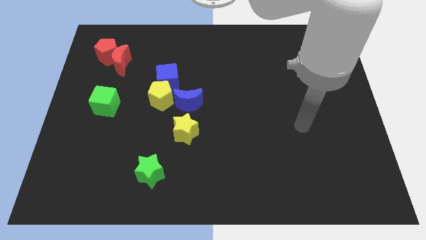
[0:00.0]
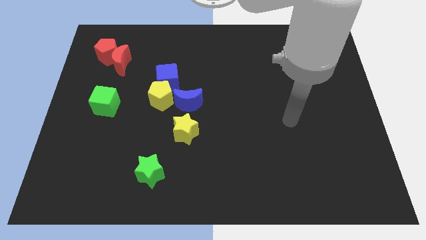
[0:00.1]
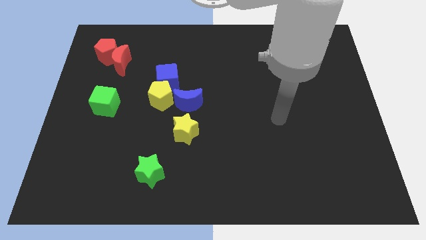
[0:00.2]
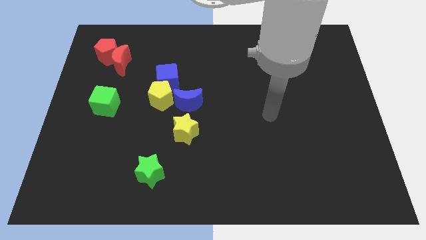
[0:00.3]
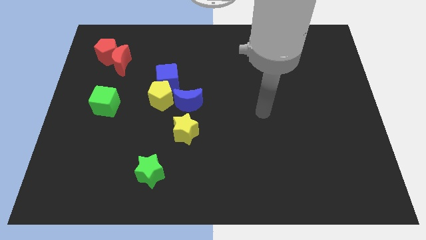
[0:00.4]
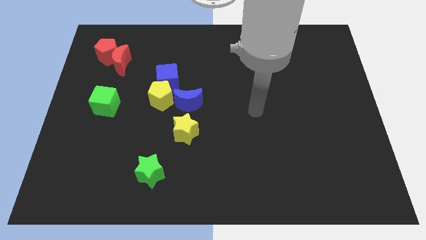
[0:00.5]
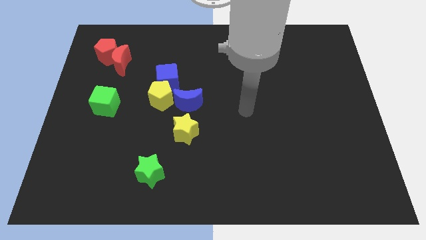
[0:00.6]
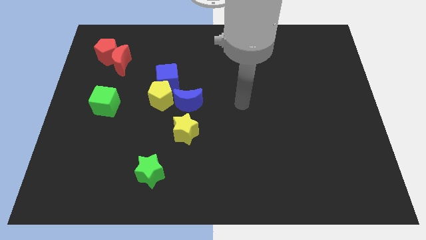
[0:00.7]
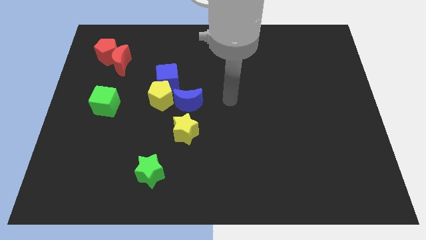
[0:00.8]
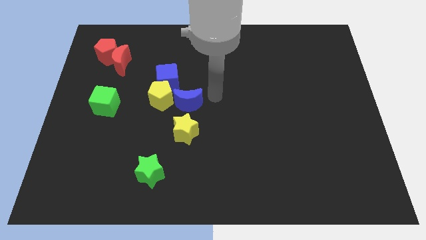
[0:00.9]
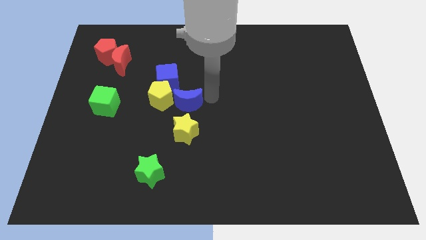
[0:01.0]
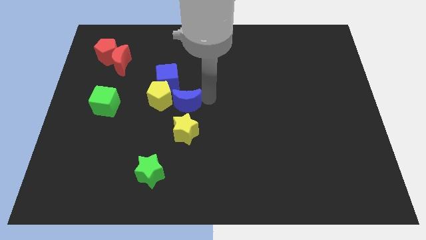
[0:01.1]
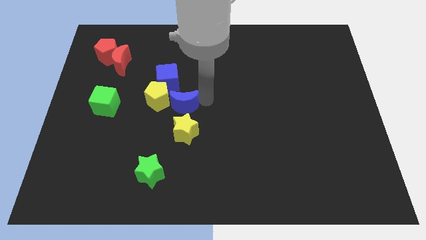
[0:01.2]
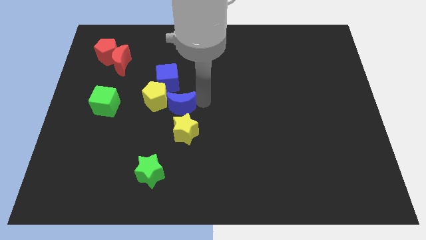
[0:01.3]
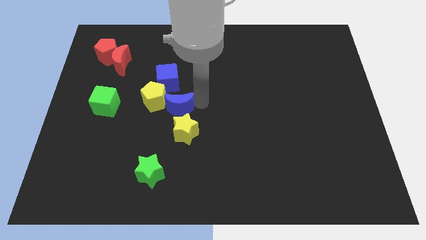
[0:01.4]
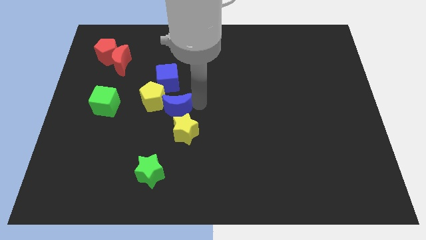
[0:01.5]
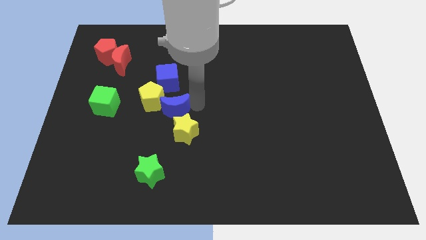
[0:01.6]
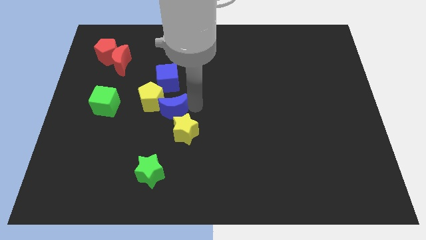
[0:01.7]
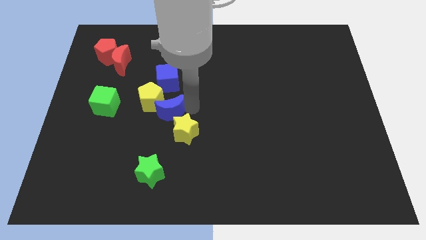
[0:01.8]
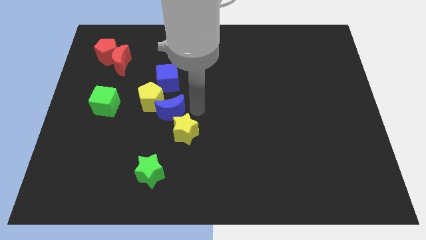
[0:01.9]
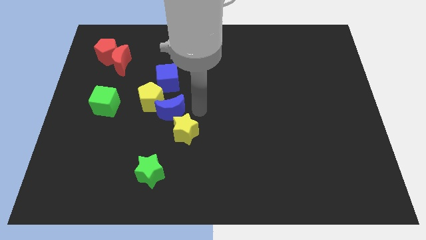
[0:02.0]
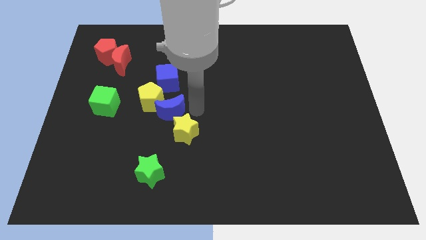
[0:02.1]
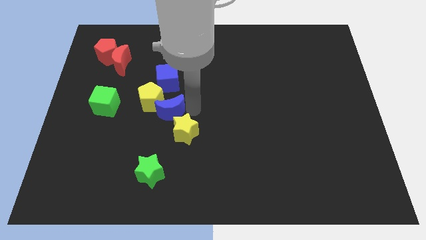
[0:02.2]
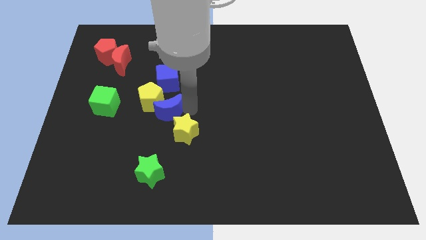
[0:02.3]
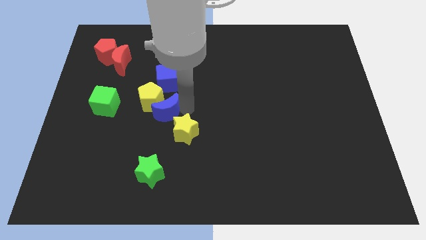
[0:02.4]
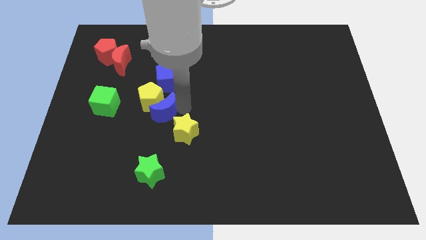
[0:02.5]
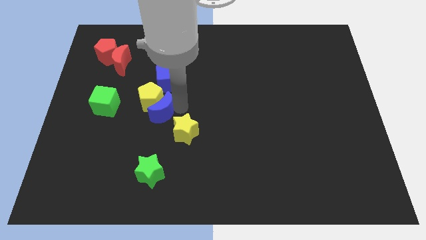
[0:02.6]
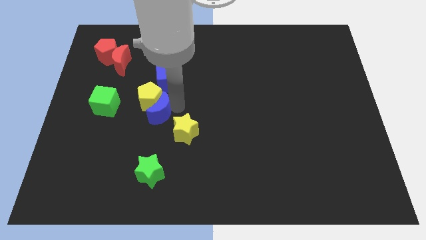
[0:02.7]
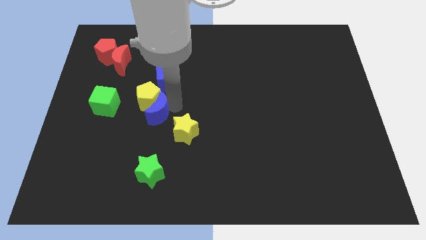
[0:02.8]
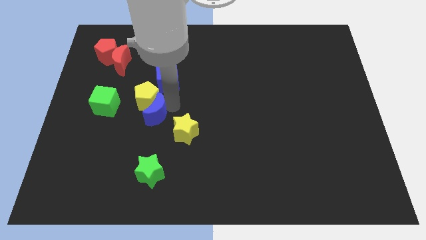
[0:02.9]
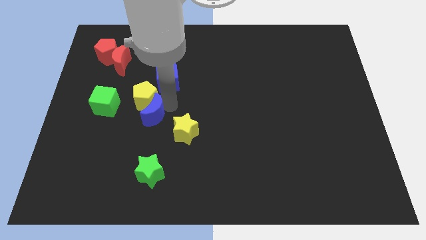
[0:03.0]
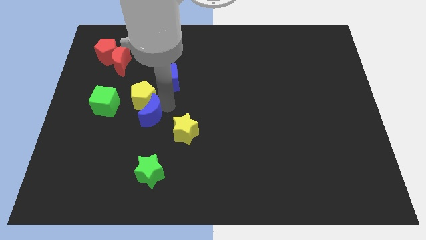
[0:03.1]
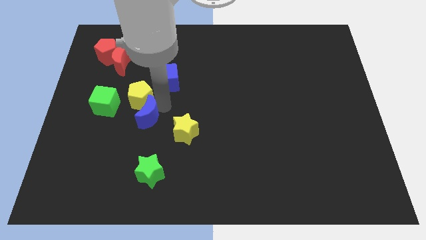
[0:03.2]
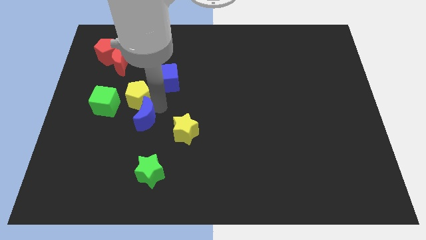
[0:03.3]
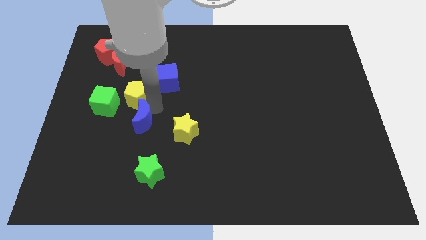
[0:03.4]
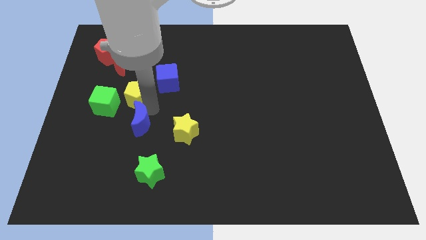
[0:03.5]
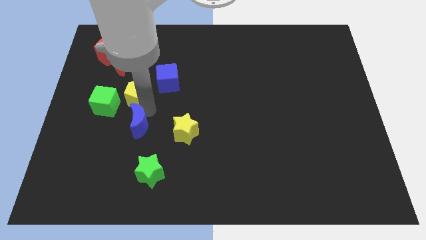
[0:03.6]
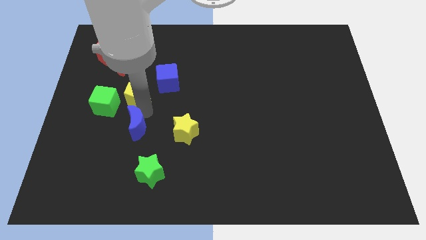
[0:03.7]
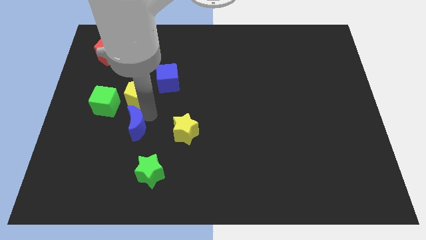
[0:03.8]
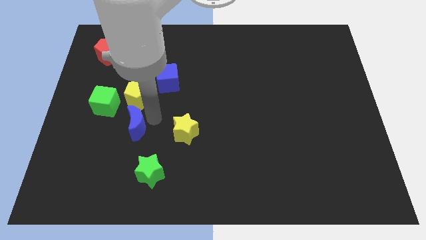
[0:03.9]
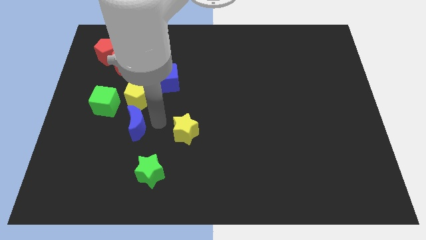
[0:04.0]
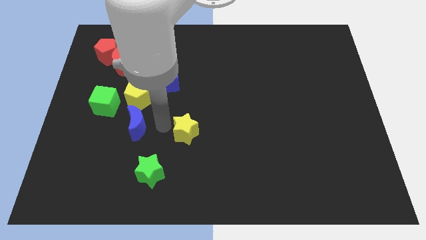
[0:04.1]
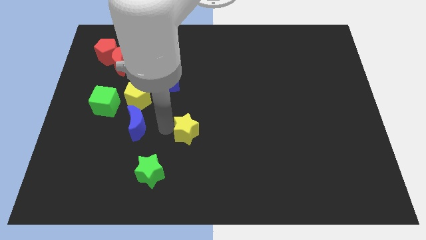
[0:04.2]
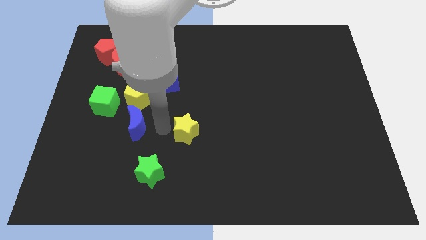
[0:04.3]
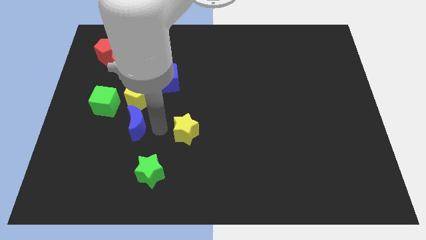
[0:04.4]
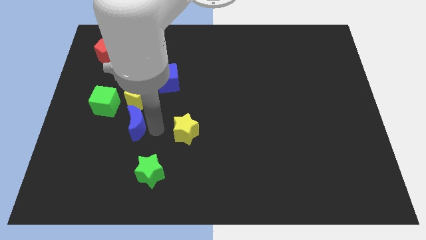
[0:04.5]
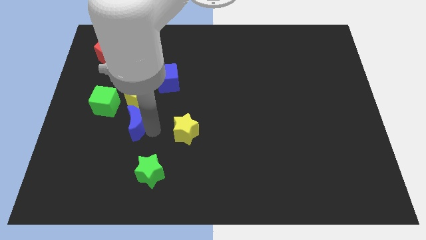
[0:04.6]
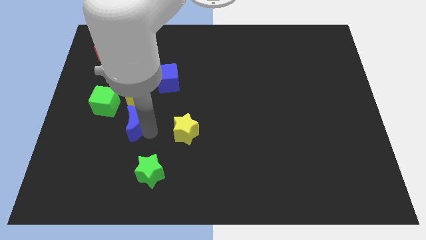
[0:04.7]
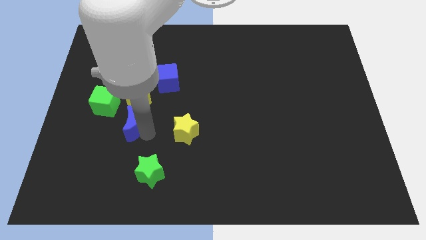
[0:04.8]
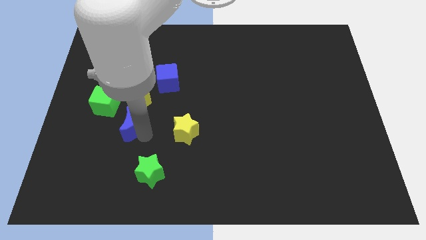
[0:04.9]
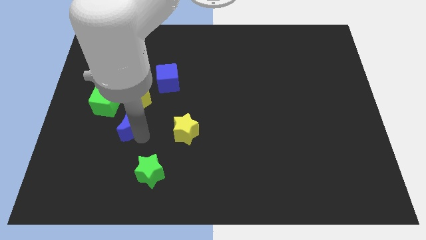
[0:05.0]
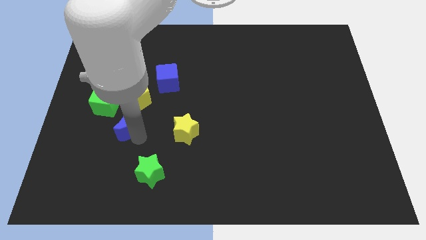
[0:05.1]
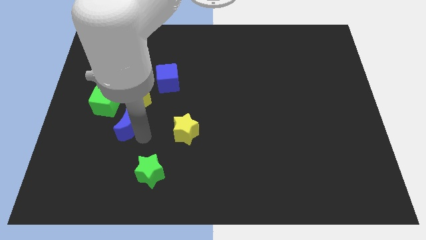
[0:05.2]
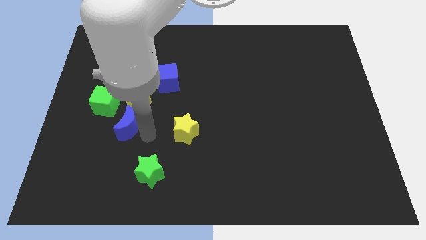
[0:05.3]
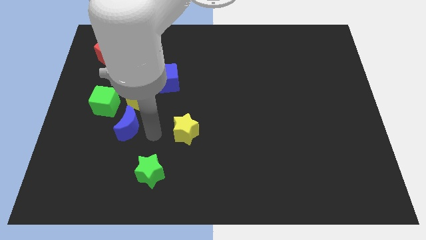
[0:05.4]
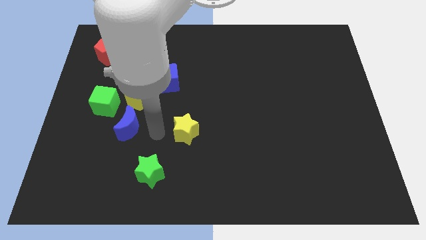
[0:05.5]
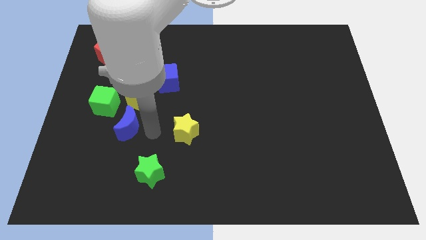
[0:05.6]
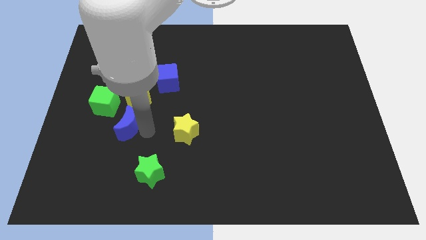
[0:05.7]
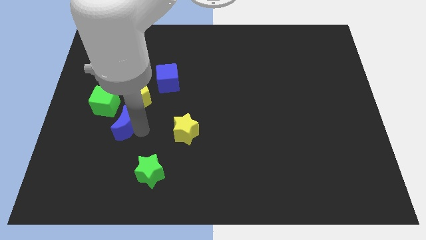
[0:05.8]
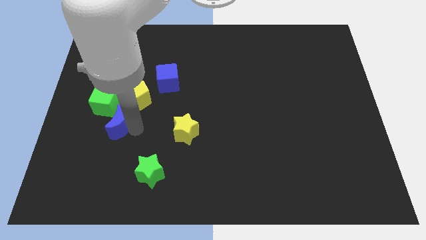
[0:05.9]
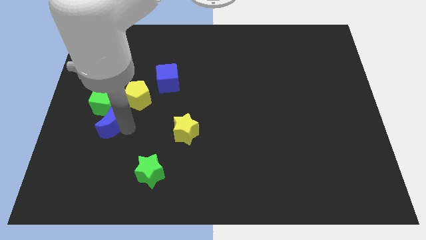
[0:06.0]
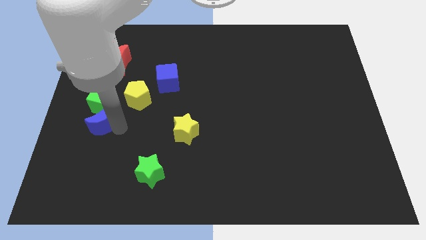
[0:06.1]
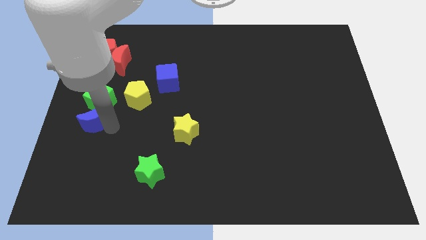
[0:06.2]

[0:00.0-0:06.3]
push the blue moon to the left side of the board
